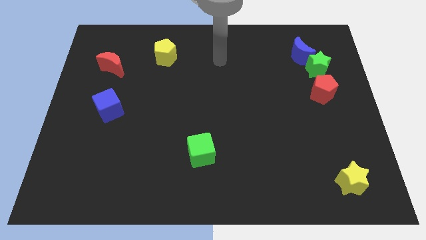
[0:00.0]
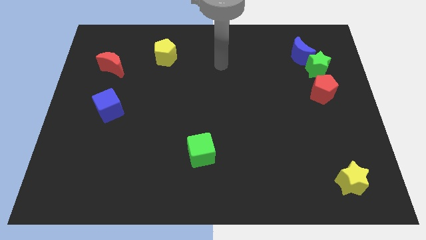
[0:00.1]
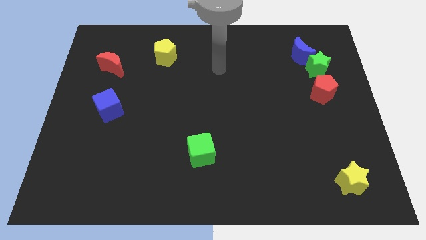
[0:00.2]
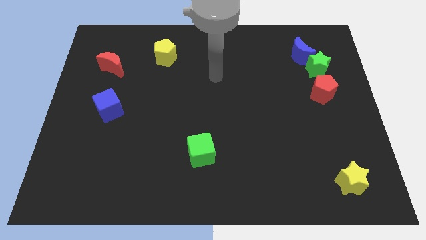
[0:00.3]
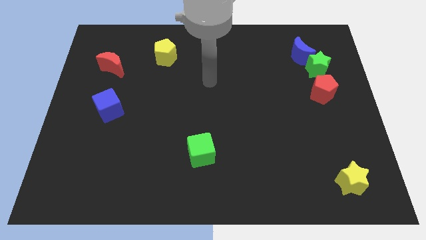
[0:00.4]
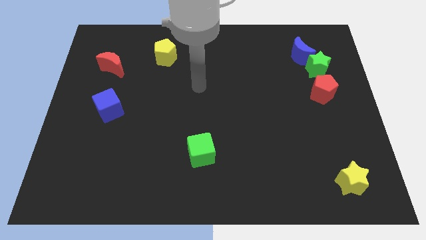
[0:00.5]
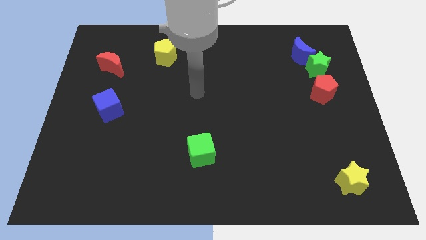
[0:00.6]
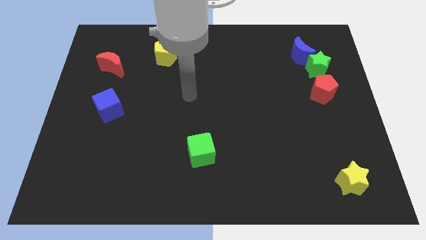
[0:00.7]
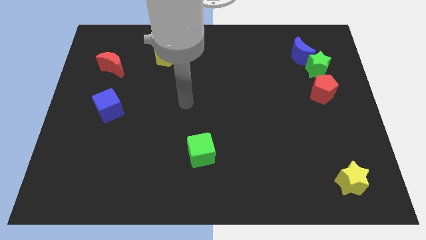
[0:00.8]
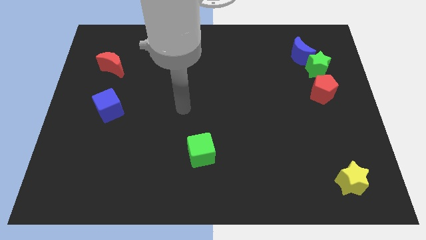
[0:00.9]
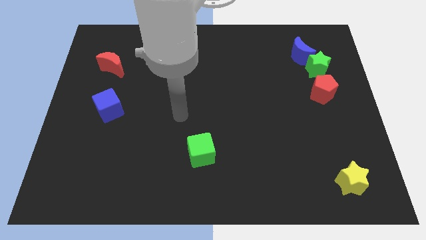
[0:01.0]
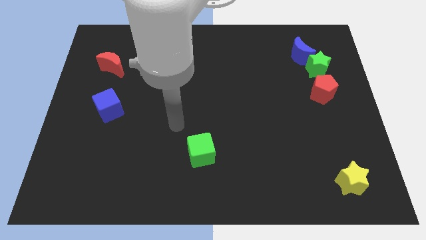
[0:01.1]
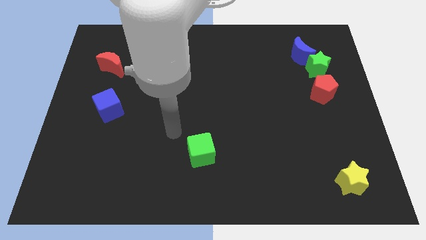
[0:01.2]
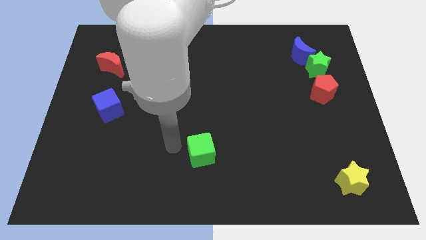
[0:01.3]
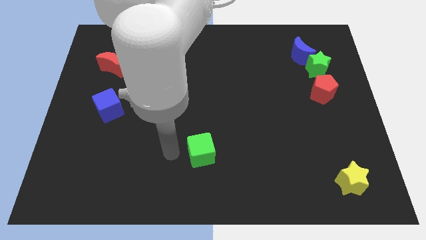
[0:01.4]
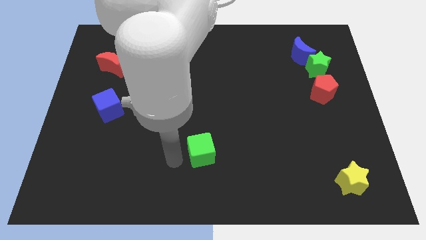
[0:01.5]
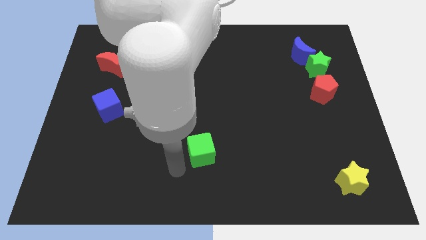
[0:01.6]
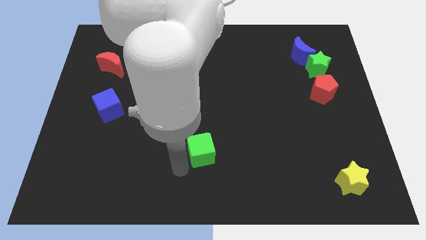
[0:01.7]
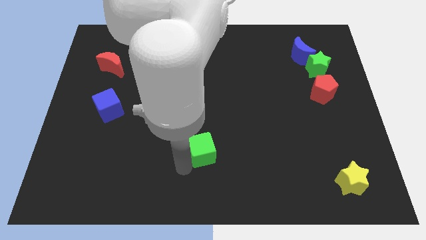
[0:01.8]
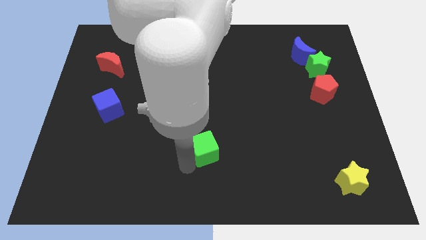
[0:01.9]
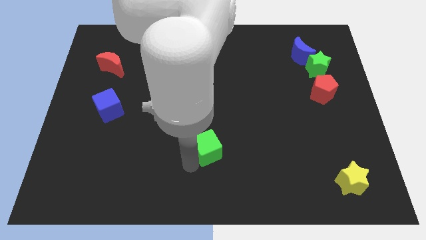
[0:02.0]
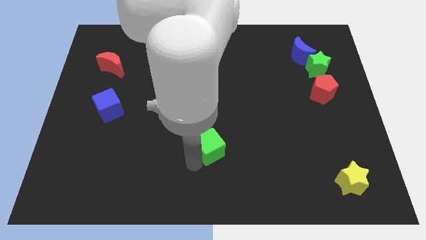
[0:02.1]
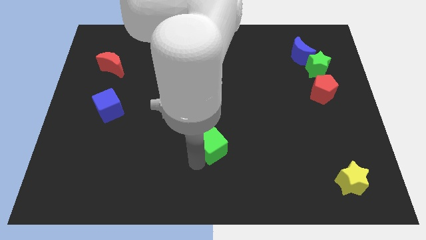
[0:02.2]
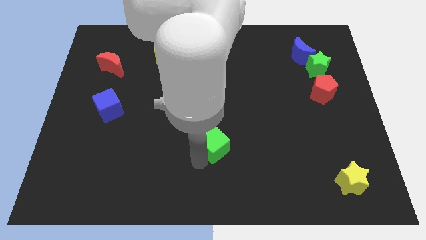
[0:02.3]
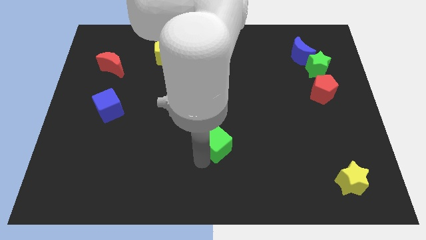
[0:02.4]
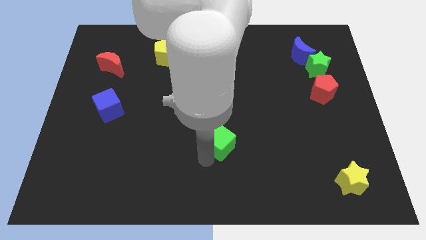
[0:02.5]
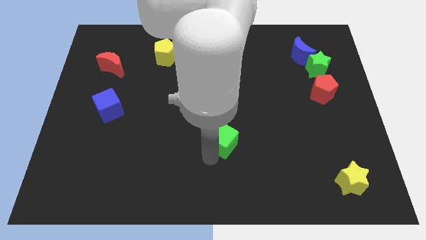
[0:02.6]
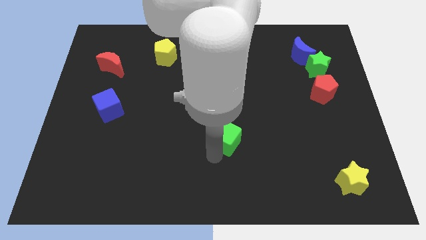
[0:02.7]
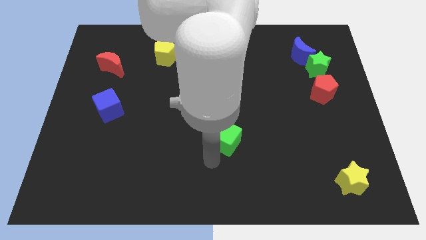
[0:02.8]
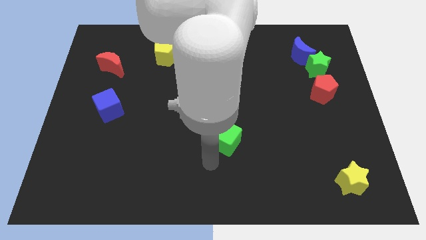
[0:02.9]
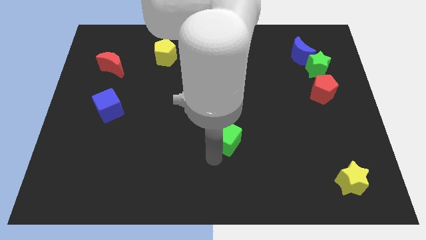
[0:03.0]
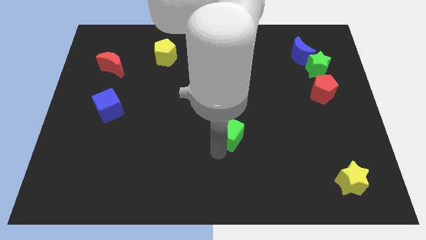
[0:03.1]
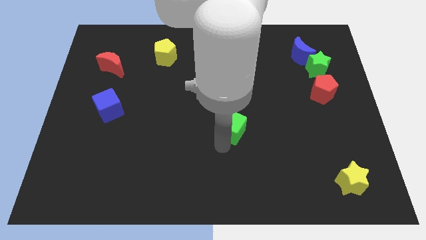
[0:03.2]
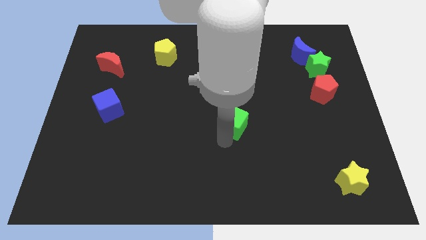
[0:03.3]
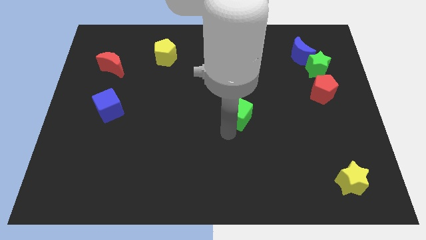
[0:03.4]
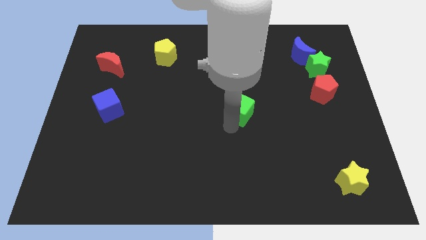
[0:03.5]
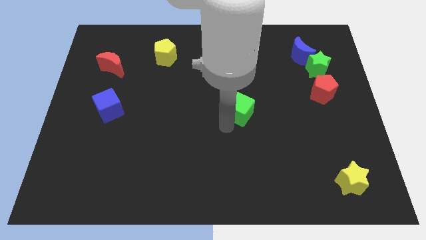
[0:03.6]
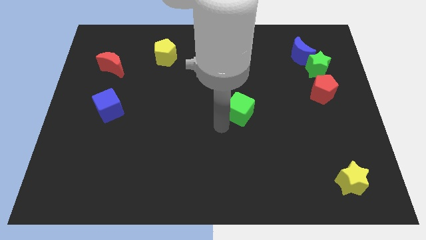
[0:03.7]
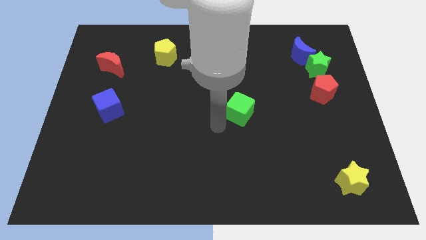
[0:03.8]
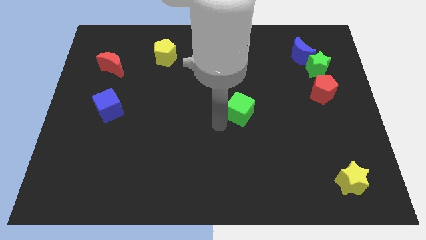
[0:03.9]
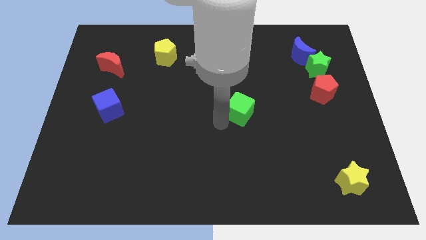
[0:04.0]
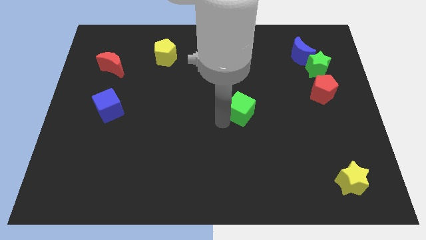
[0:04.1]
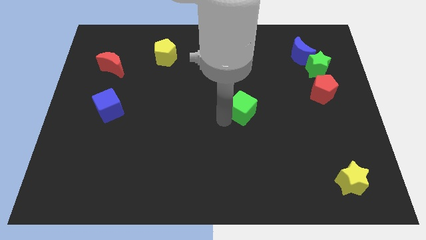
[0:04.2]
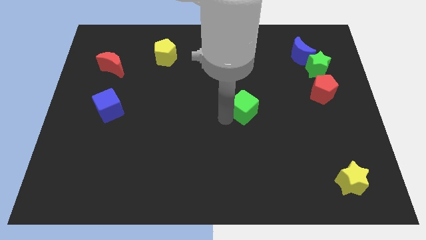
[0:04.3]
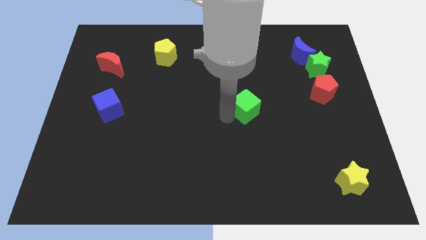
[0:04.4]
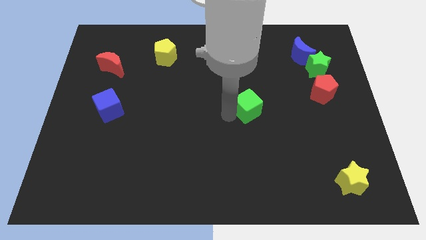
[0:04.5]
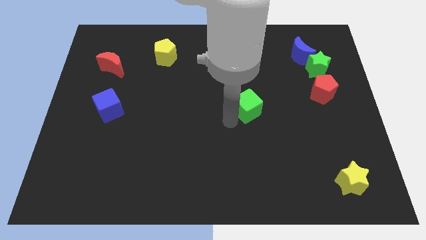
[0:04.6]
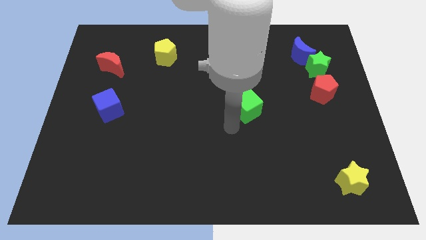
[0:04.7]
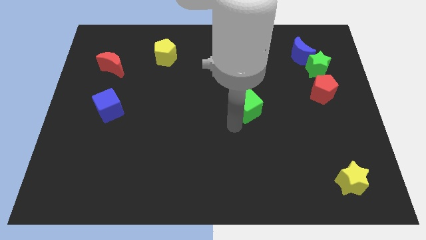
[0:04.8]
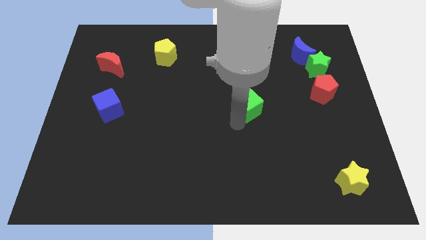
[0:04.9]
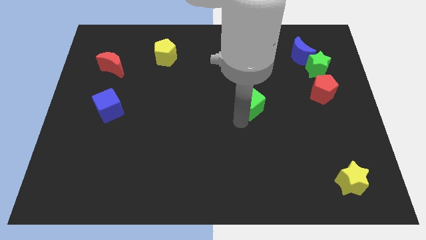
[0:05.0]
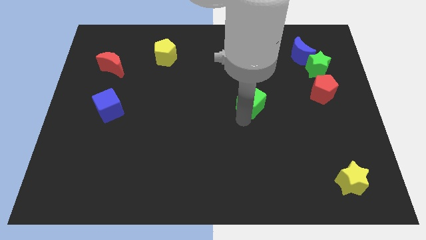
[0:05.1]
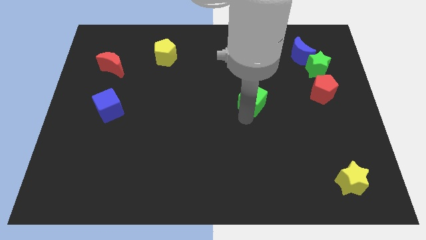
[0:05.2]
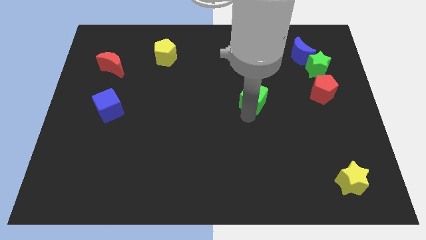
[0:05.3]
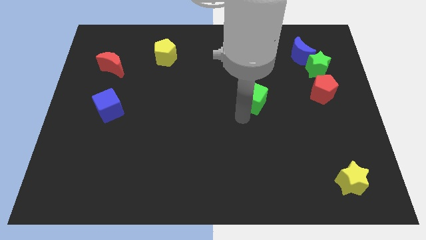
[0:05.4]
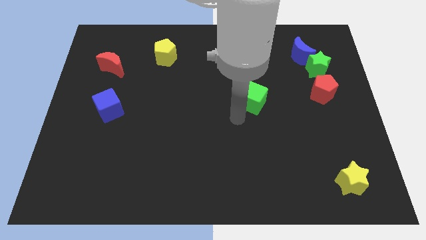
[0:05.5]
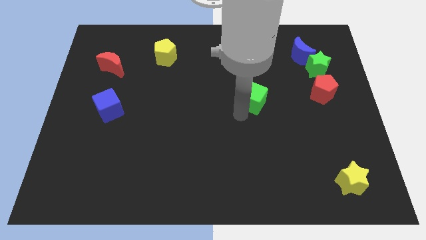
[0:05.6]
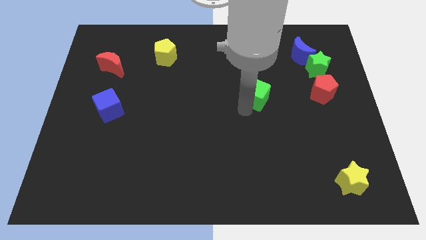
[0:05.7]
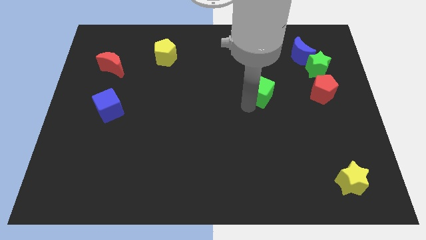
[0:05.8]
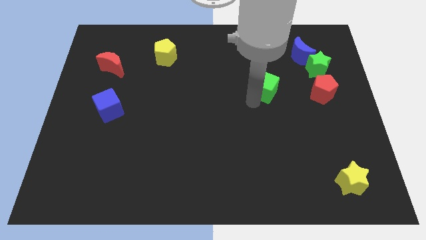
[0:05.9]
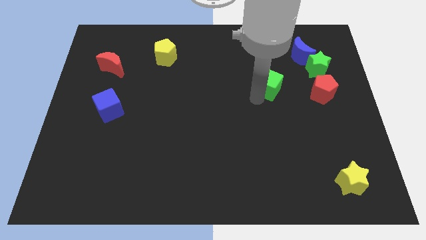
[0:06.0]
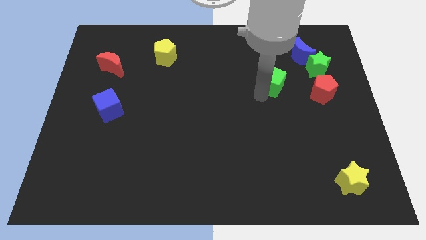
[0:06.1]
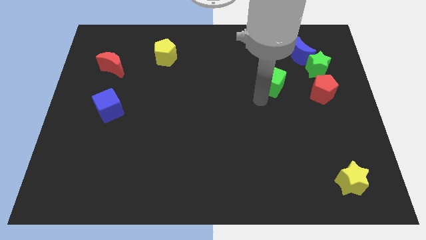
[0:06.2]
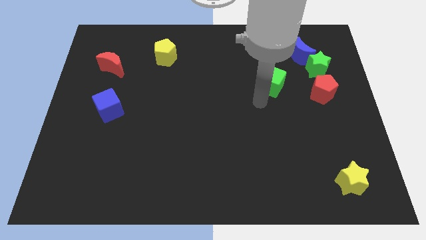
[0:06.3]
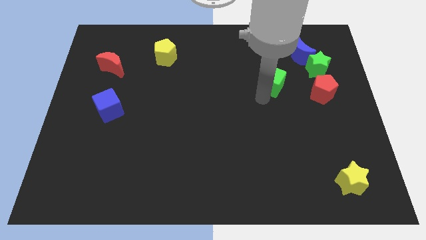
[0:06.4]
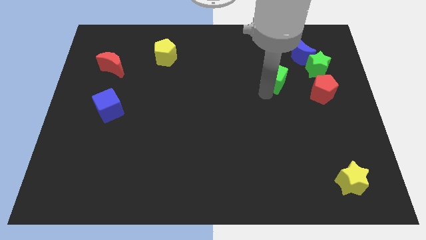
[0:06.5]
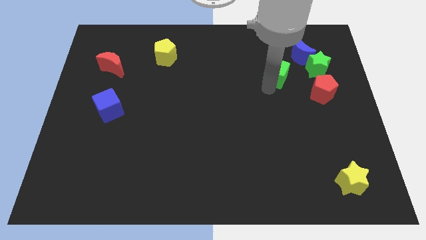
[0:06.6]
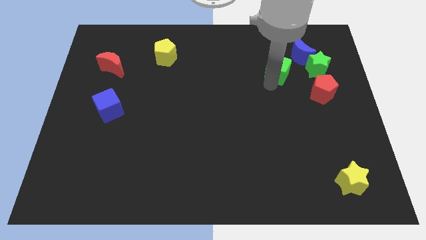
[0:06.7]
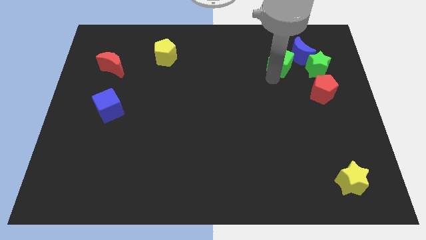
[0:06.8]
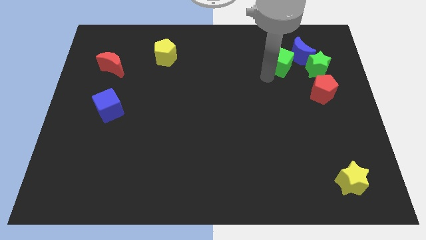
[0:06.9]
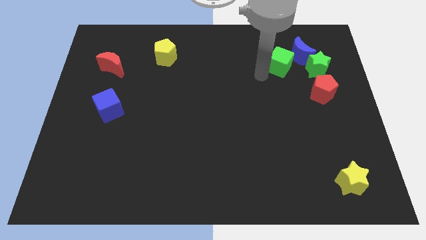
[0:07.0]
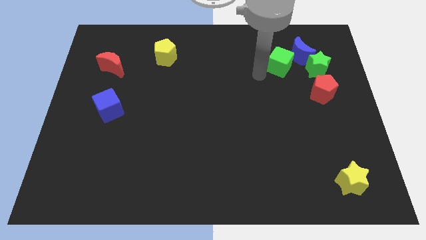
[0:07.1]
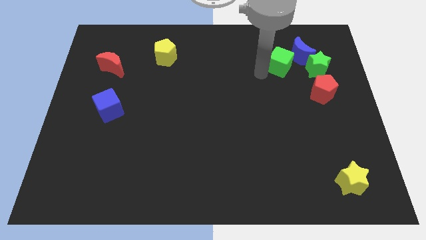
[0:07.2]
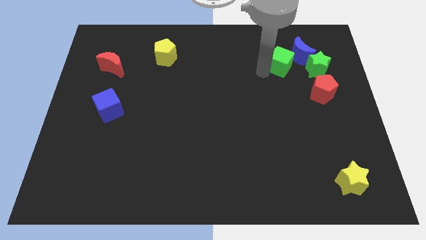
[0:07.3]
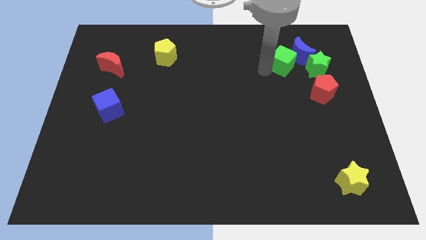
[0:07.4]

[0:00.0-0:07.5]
slide the green cube towards the blue moon
